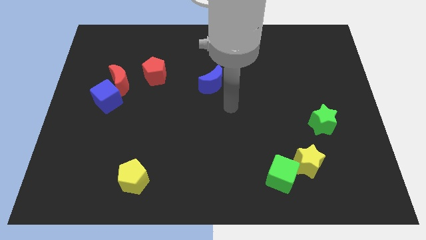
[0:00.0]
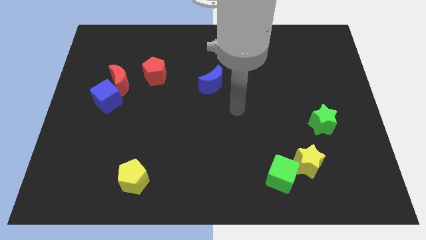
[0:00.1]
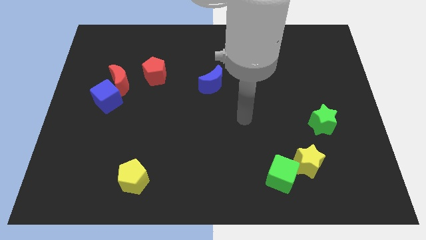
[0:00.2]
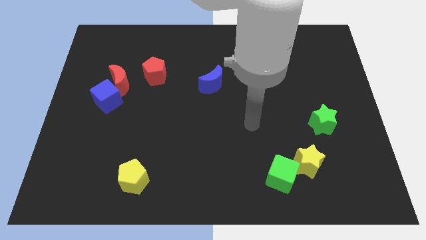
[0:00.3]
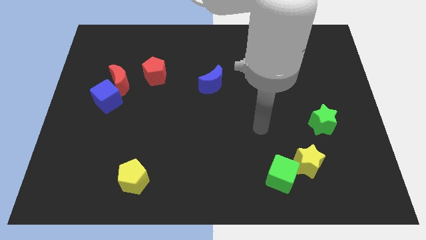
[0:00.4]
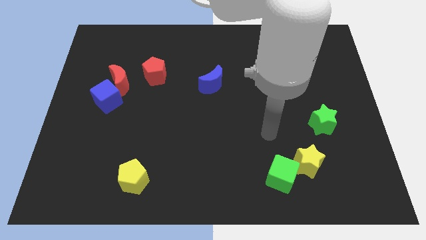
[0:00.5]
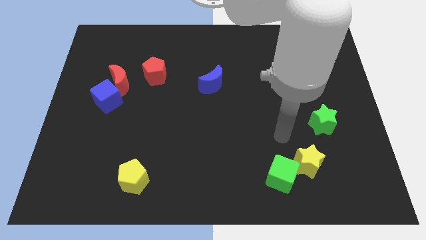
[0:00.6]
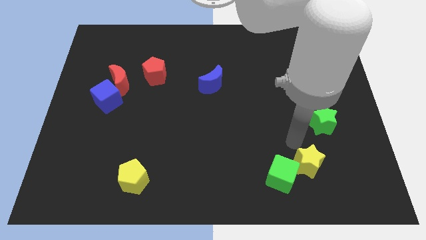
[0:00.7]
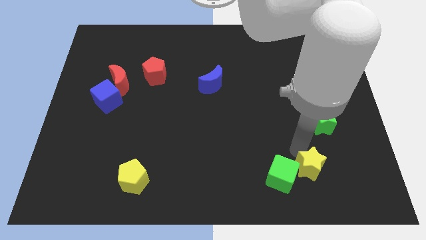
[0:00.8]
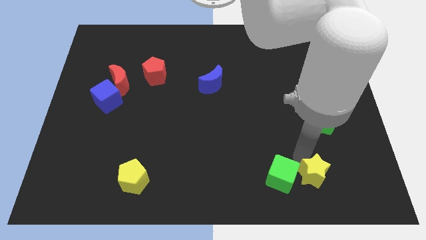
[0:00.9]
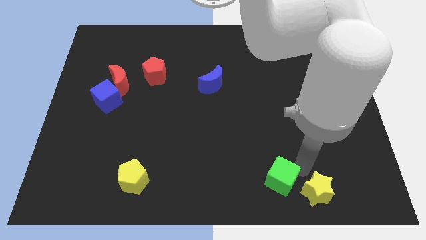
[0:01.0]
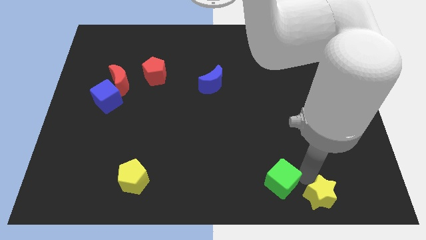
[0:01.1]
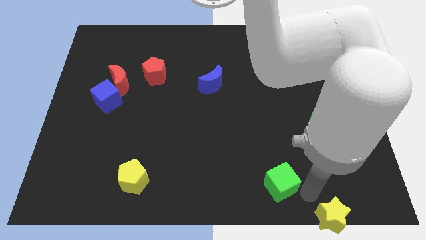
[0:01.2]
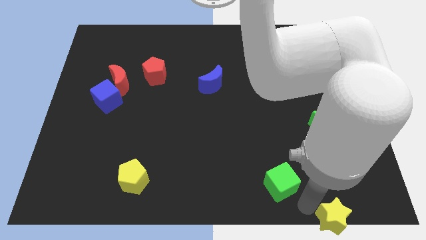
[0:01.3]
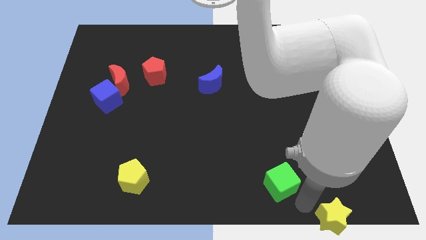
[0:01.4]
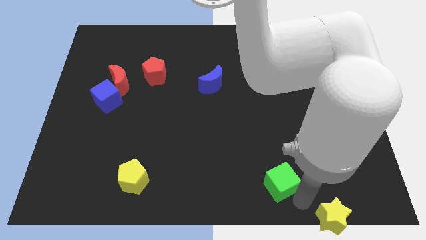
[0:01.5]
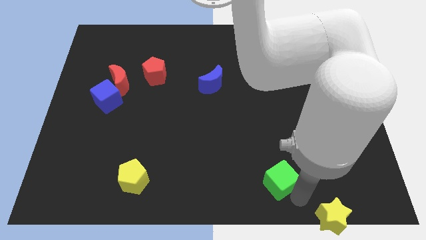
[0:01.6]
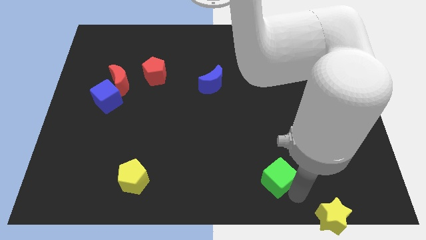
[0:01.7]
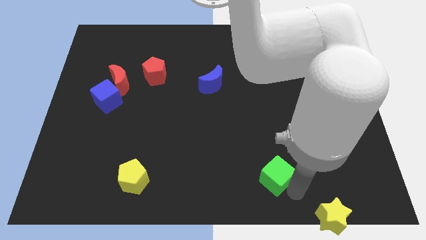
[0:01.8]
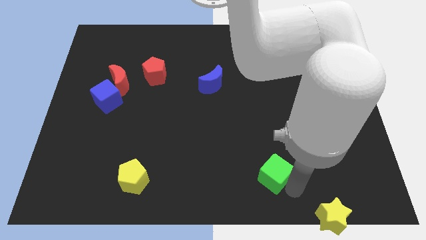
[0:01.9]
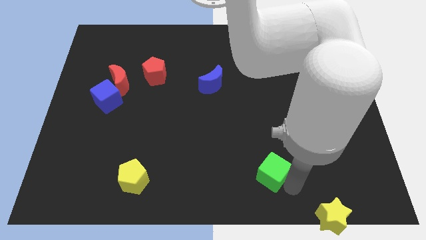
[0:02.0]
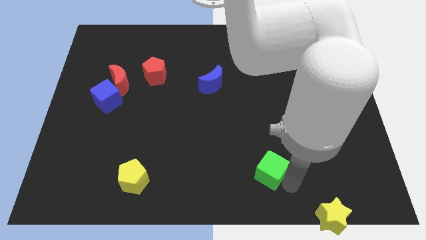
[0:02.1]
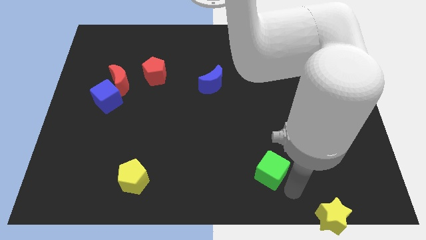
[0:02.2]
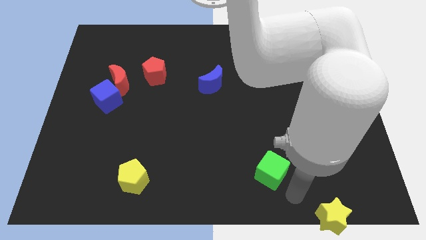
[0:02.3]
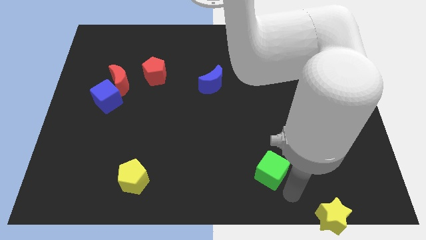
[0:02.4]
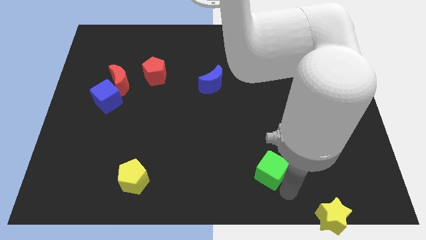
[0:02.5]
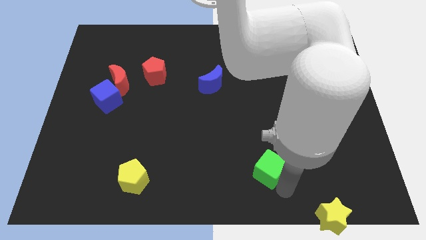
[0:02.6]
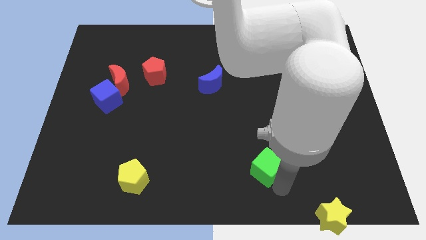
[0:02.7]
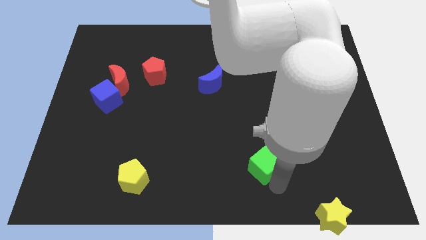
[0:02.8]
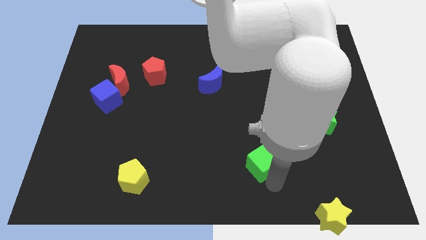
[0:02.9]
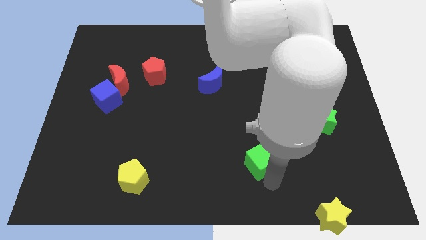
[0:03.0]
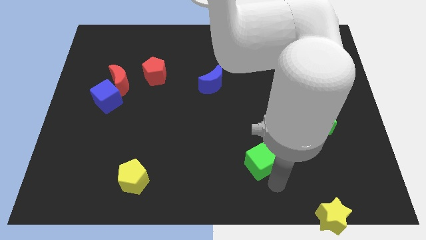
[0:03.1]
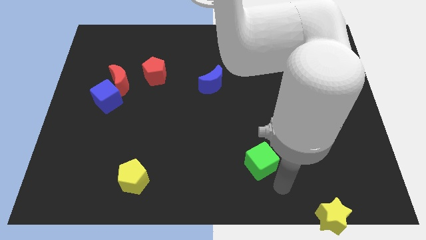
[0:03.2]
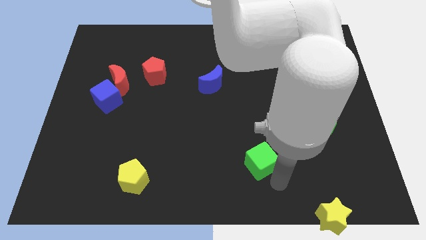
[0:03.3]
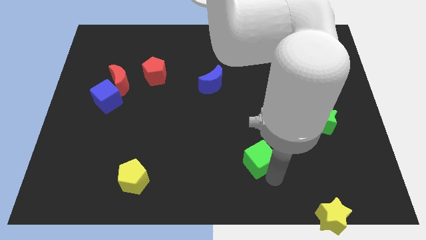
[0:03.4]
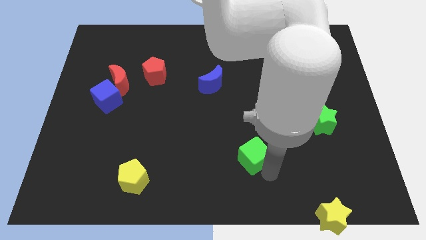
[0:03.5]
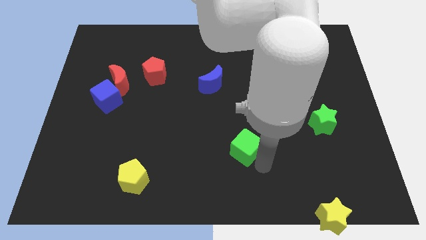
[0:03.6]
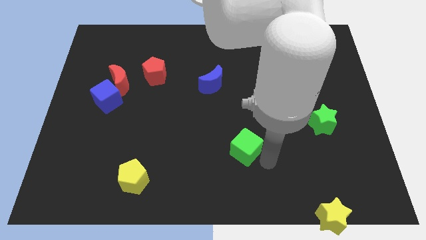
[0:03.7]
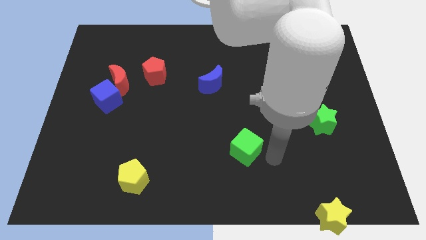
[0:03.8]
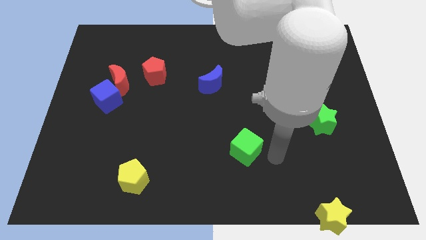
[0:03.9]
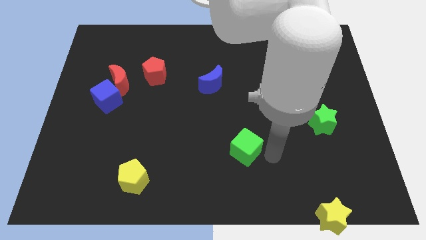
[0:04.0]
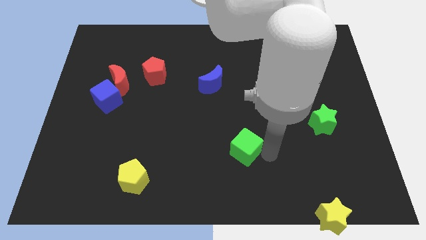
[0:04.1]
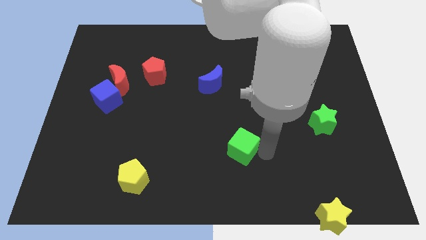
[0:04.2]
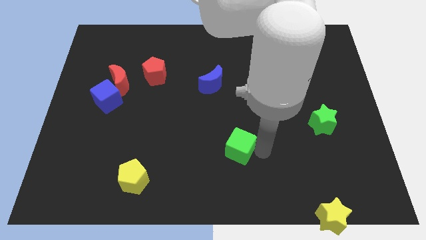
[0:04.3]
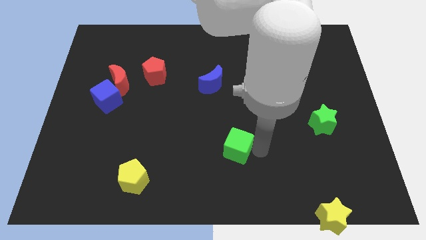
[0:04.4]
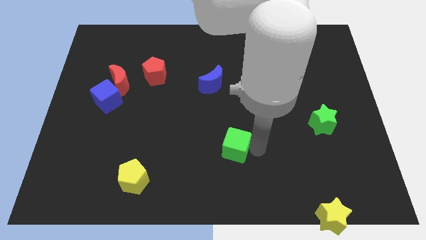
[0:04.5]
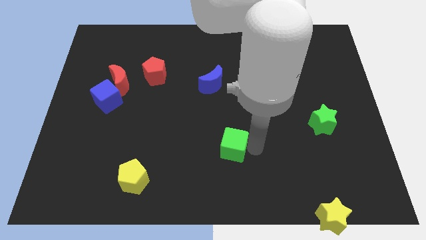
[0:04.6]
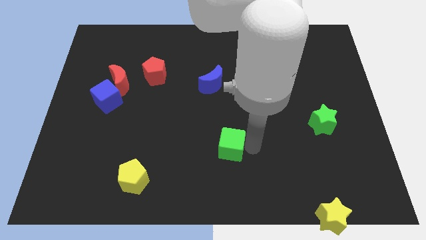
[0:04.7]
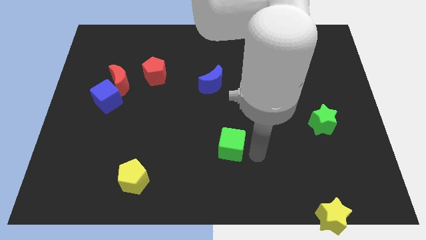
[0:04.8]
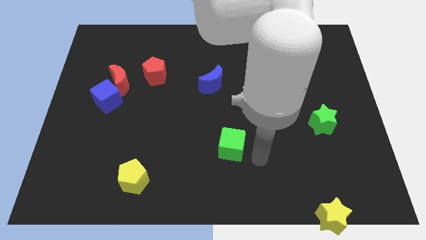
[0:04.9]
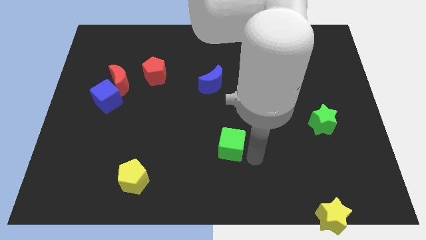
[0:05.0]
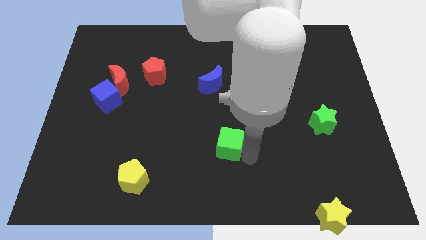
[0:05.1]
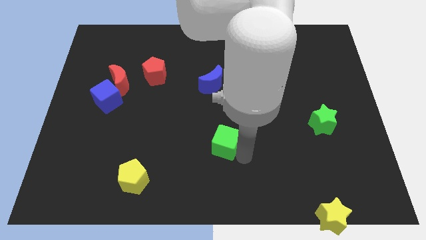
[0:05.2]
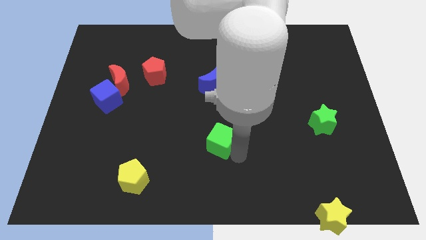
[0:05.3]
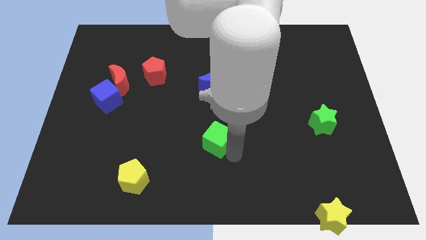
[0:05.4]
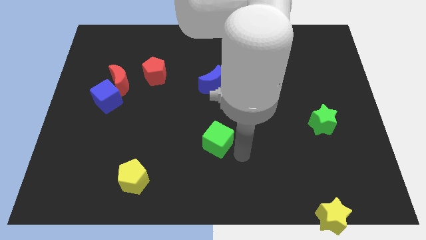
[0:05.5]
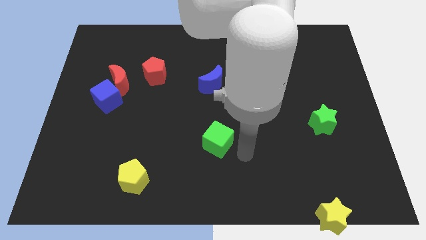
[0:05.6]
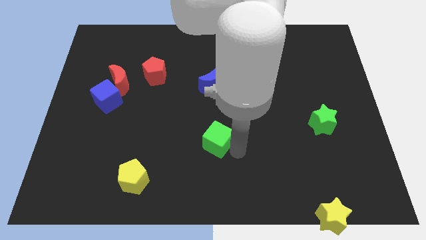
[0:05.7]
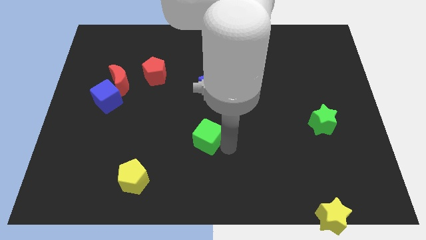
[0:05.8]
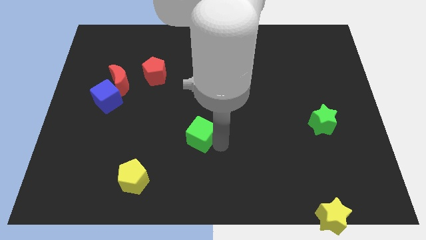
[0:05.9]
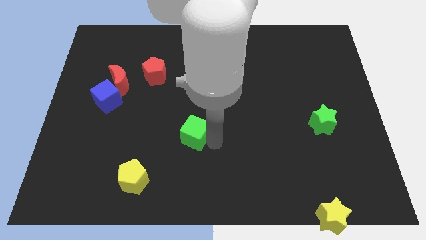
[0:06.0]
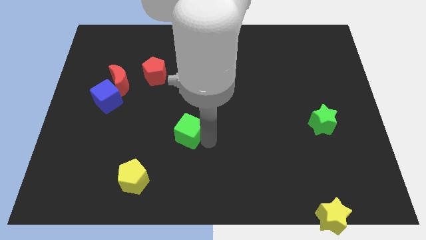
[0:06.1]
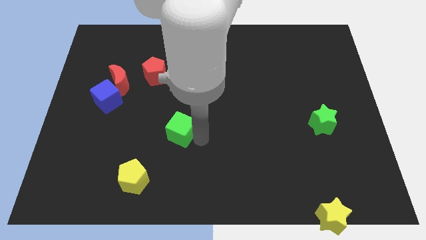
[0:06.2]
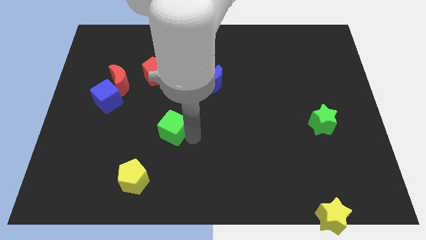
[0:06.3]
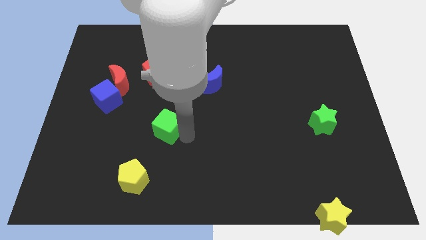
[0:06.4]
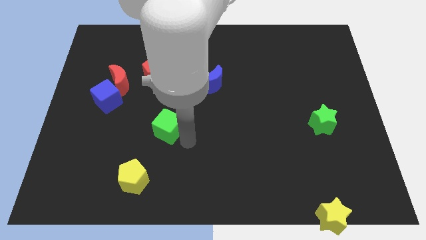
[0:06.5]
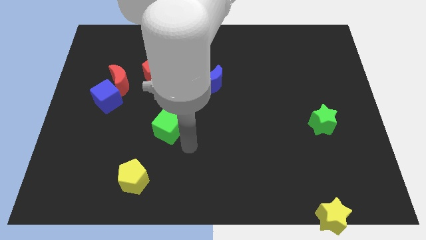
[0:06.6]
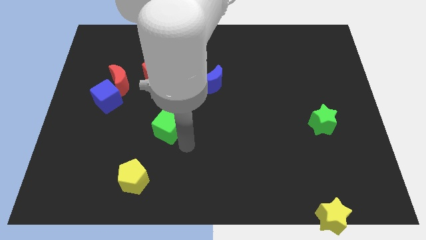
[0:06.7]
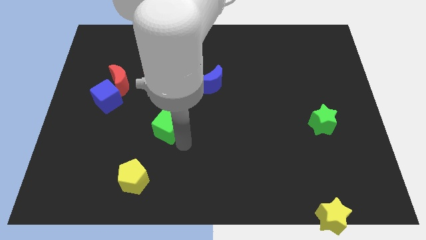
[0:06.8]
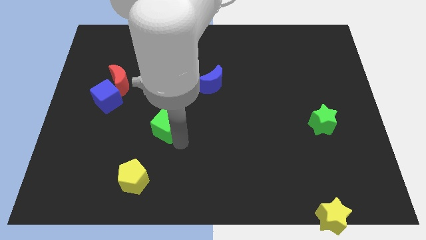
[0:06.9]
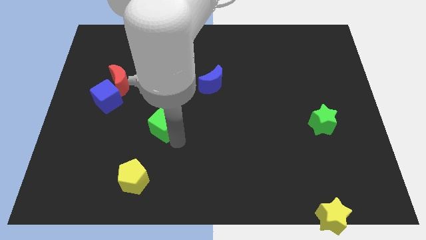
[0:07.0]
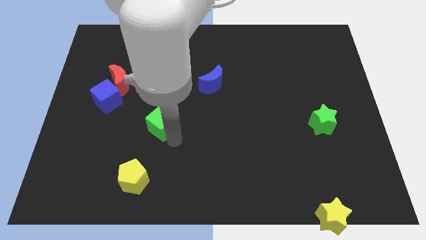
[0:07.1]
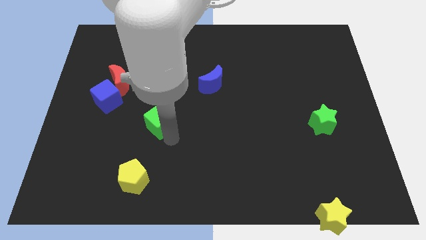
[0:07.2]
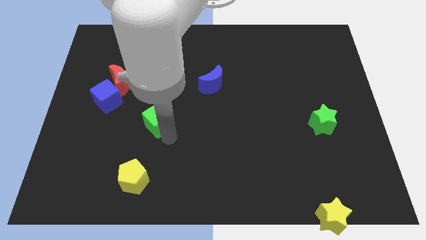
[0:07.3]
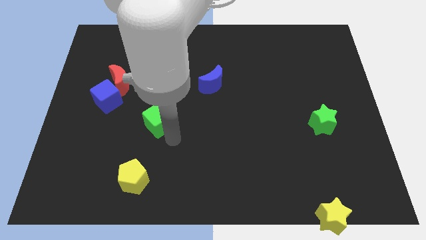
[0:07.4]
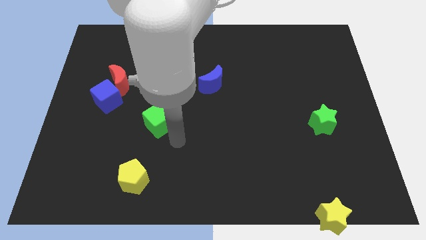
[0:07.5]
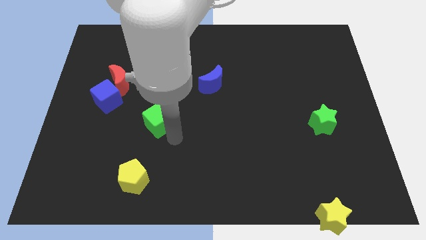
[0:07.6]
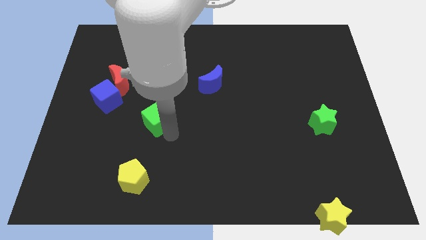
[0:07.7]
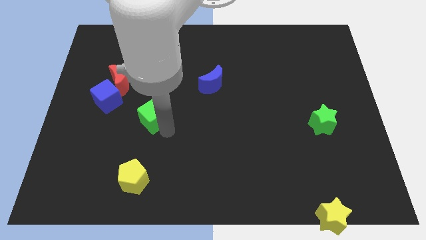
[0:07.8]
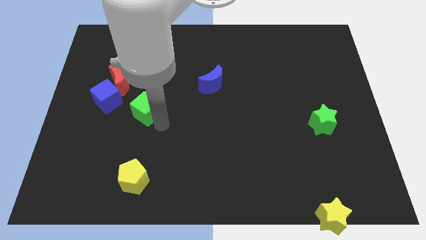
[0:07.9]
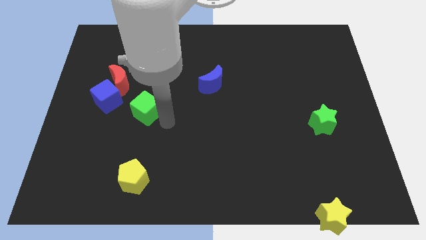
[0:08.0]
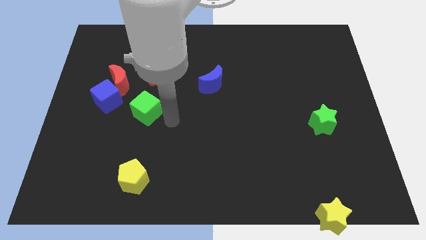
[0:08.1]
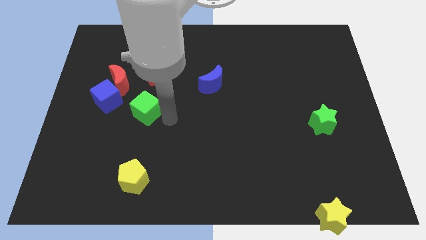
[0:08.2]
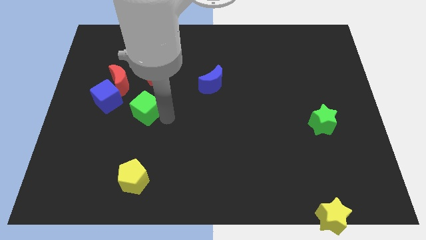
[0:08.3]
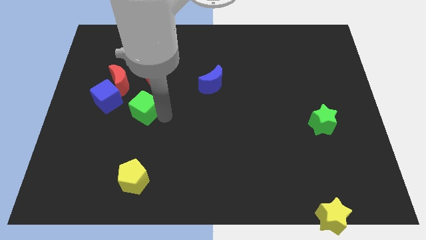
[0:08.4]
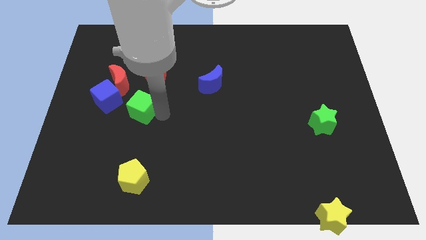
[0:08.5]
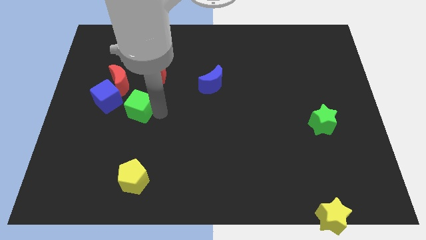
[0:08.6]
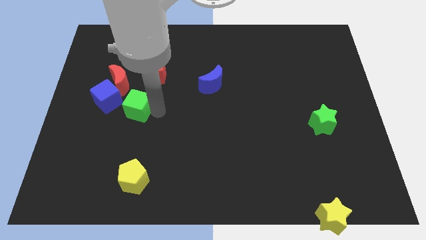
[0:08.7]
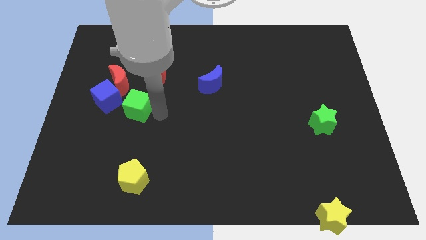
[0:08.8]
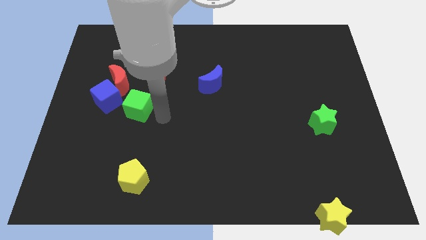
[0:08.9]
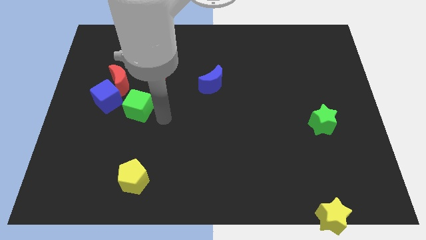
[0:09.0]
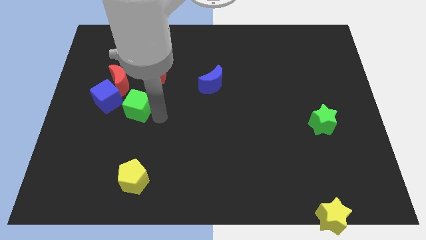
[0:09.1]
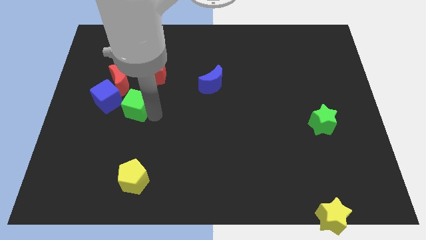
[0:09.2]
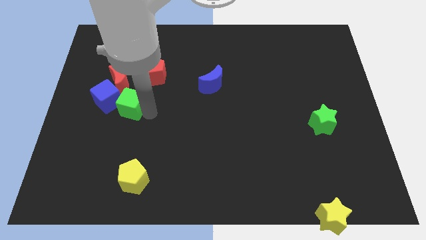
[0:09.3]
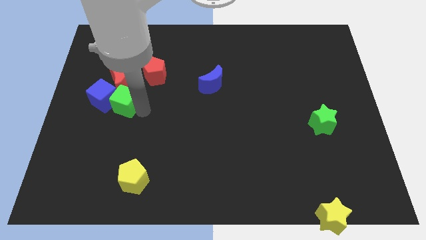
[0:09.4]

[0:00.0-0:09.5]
move the green cube towards the blue cube
